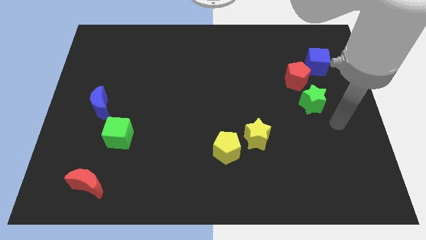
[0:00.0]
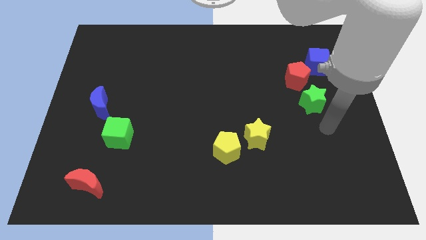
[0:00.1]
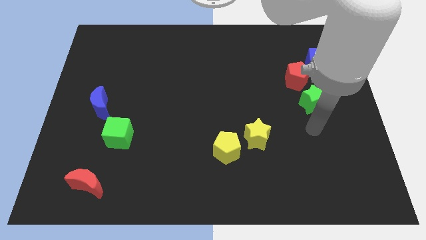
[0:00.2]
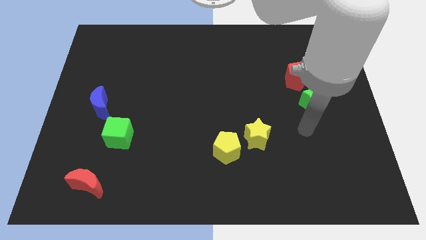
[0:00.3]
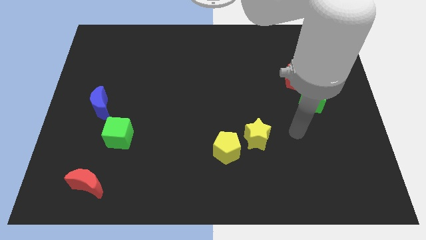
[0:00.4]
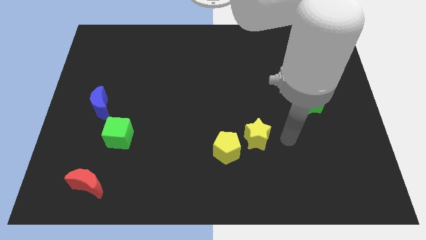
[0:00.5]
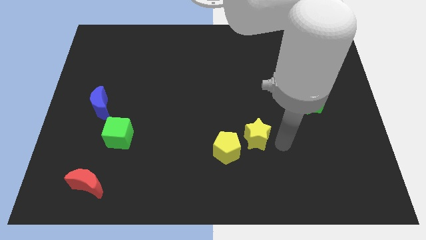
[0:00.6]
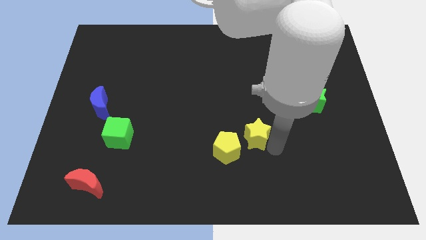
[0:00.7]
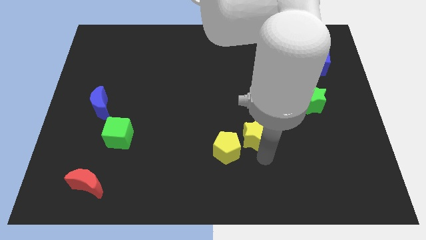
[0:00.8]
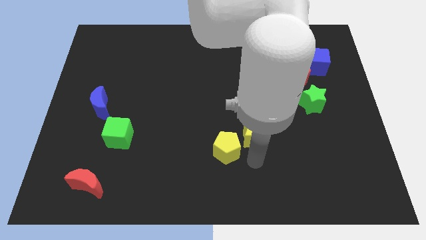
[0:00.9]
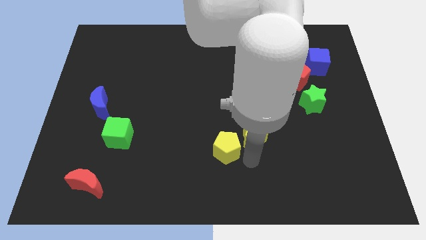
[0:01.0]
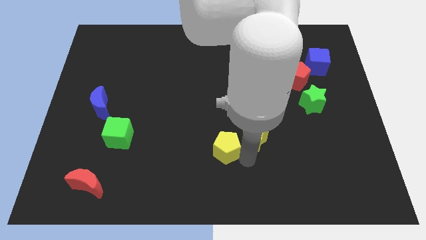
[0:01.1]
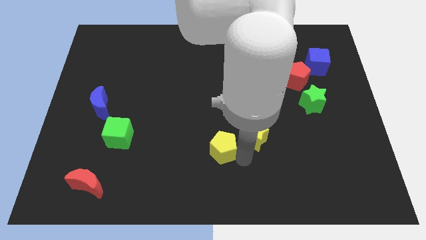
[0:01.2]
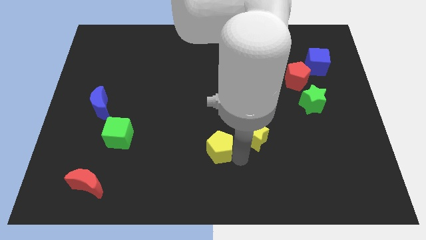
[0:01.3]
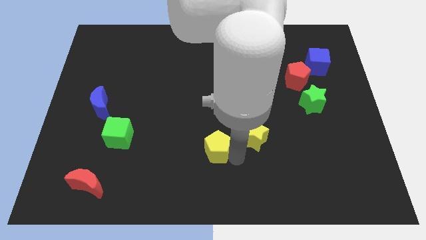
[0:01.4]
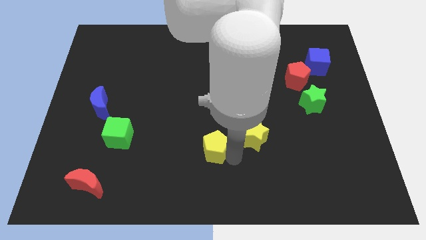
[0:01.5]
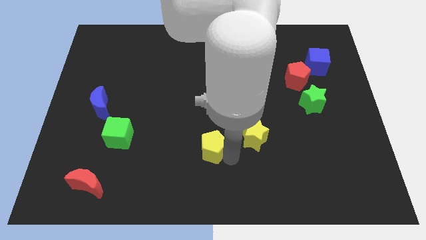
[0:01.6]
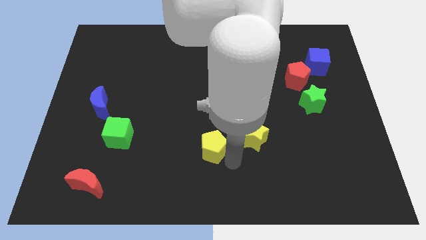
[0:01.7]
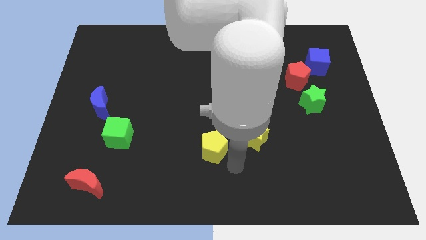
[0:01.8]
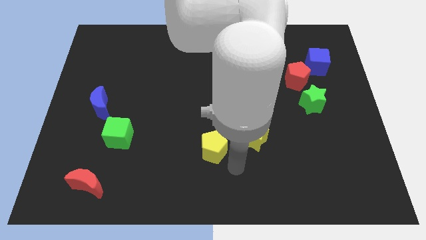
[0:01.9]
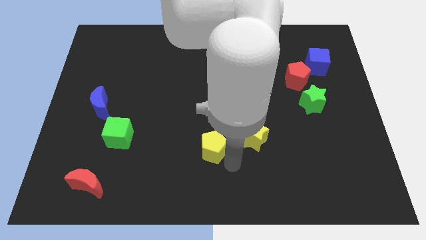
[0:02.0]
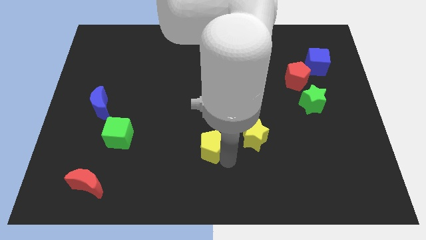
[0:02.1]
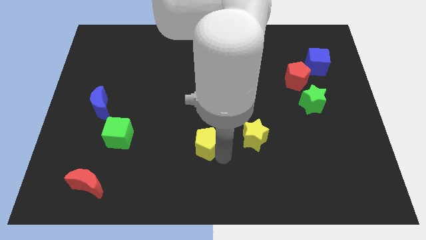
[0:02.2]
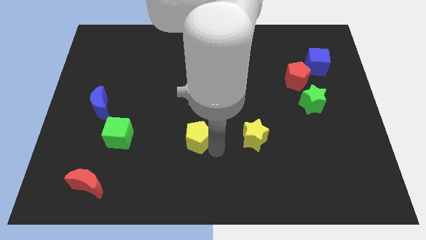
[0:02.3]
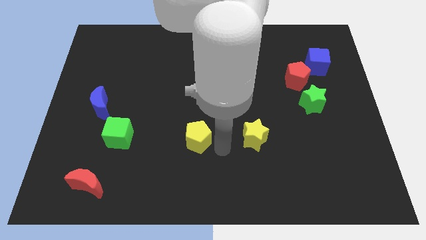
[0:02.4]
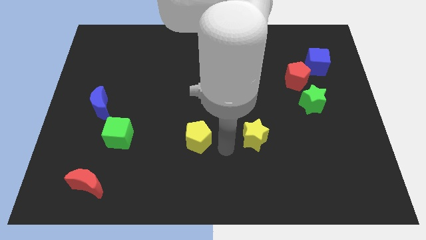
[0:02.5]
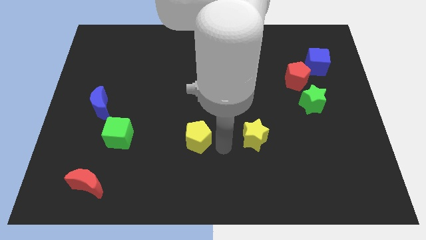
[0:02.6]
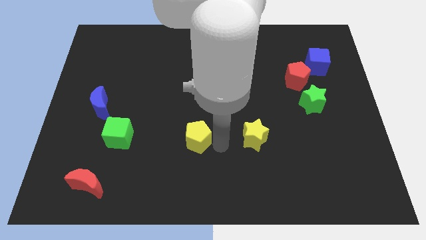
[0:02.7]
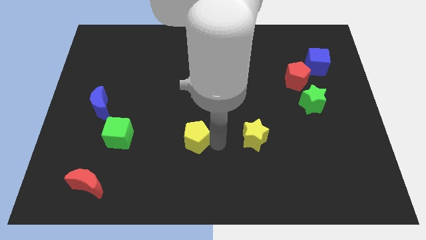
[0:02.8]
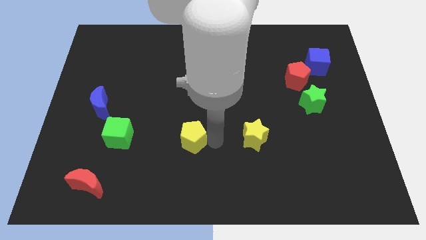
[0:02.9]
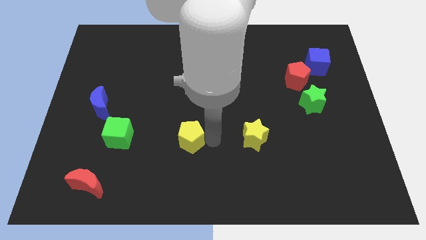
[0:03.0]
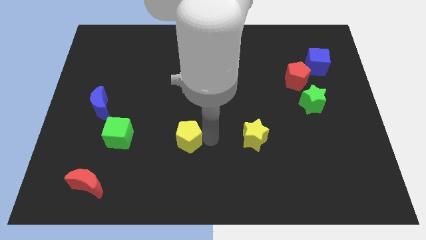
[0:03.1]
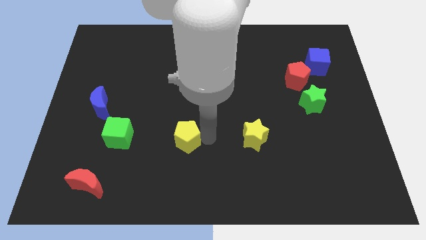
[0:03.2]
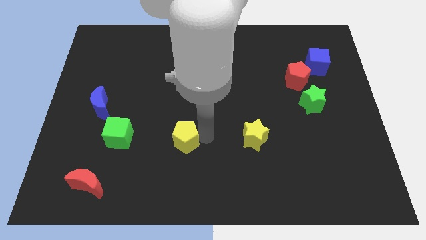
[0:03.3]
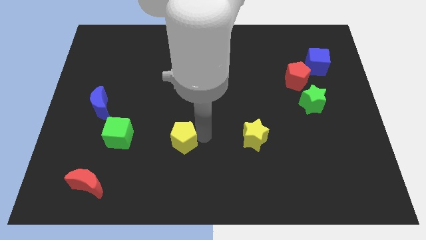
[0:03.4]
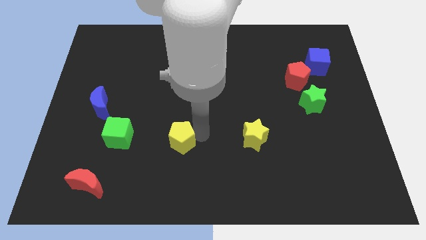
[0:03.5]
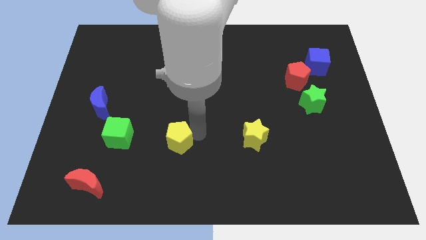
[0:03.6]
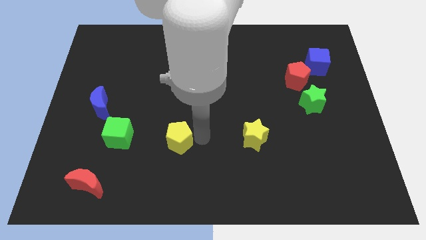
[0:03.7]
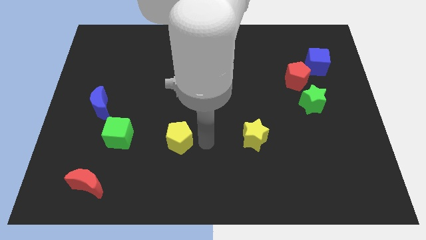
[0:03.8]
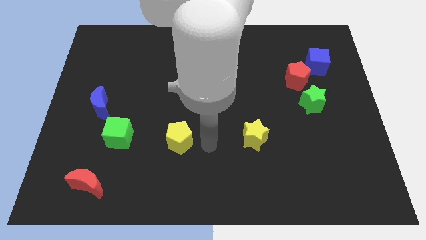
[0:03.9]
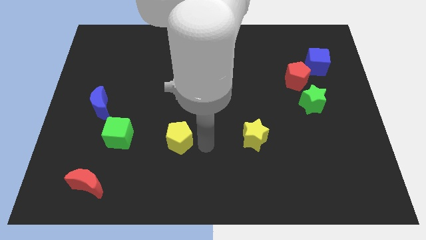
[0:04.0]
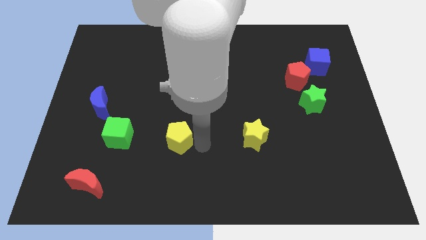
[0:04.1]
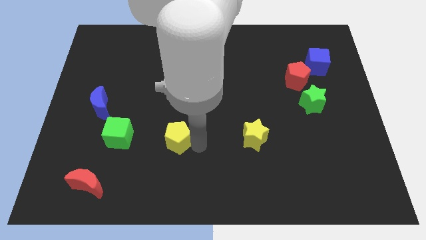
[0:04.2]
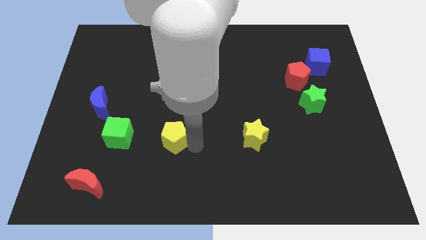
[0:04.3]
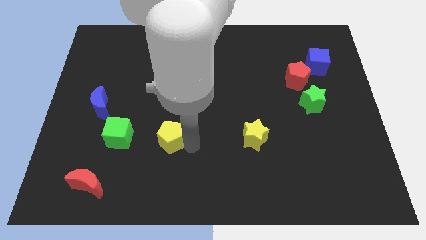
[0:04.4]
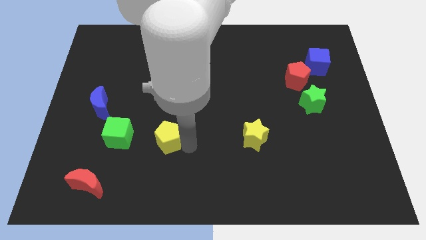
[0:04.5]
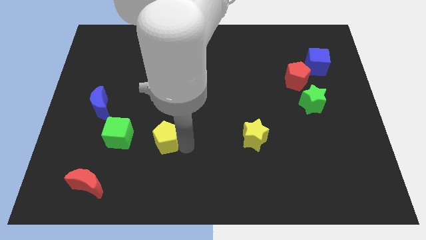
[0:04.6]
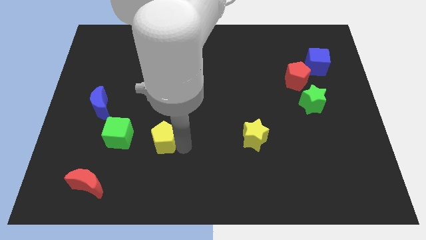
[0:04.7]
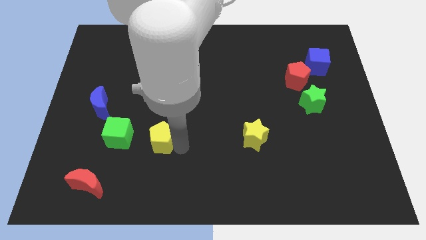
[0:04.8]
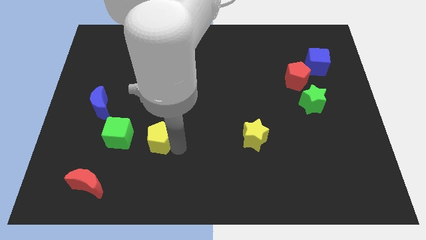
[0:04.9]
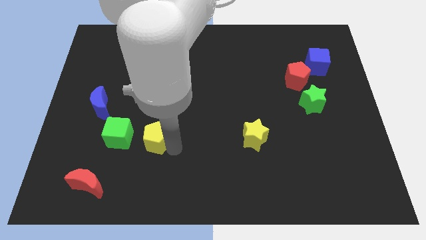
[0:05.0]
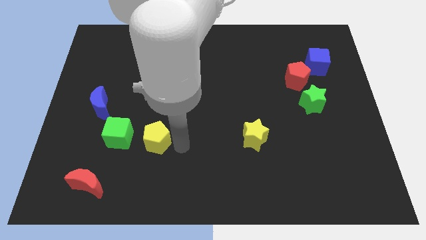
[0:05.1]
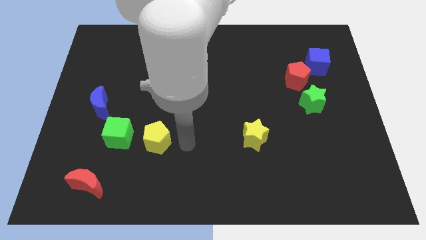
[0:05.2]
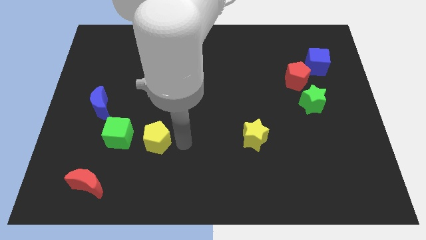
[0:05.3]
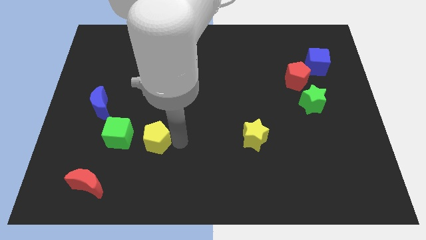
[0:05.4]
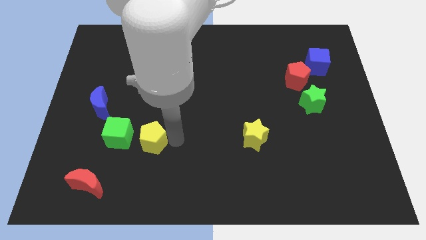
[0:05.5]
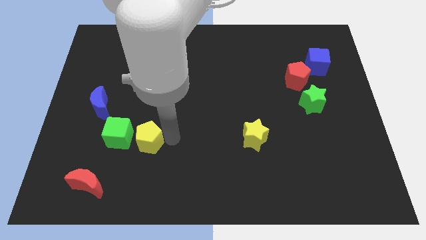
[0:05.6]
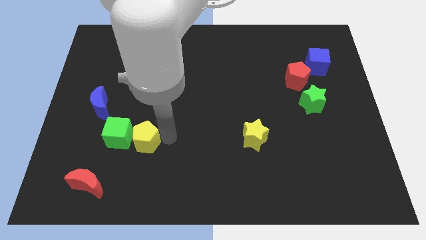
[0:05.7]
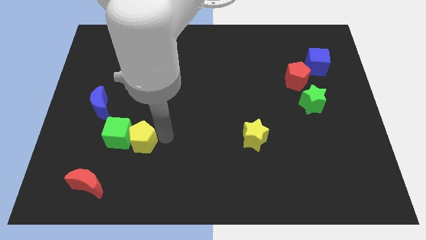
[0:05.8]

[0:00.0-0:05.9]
push the yellow pentagon to the green cube

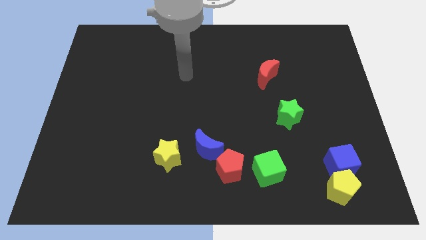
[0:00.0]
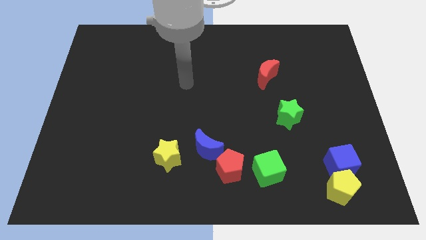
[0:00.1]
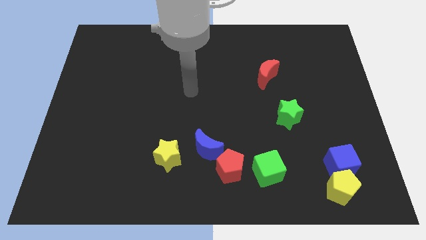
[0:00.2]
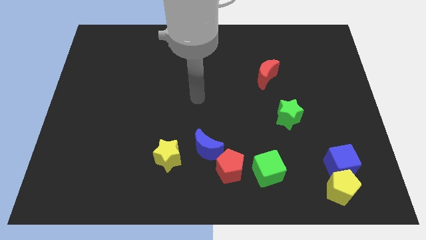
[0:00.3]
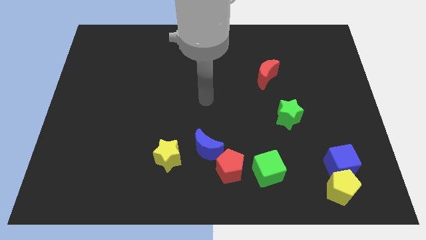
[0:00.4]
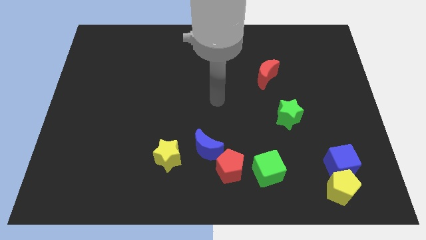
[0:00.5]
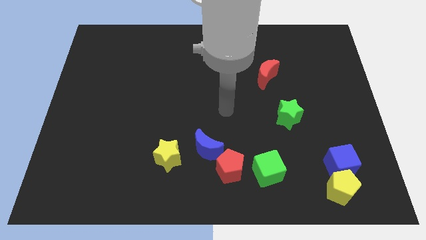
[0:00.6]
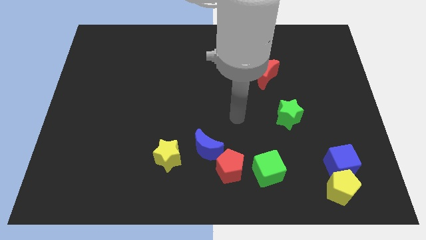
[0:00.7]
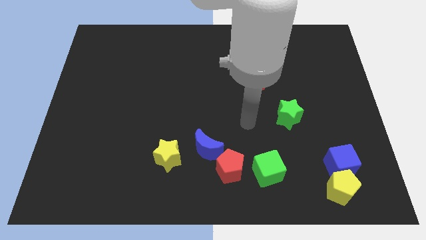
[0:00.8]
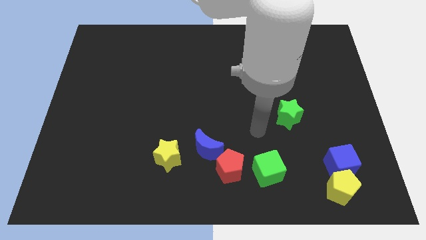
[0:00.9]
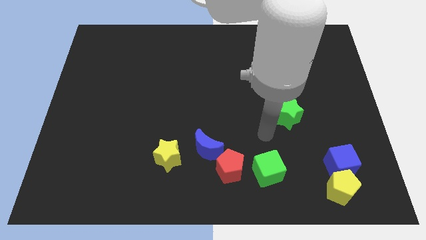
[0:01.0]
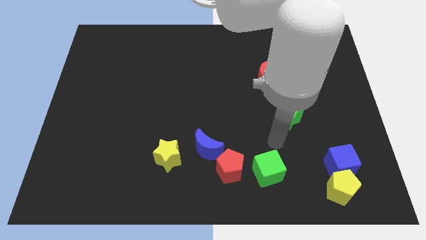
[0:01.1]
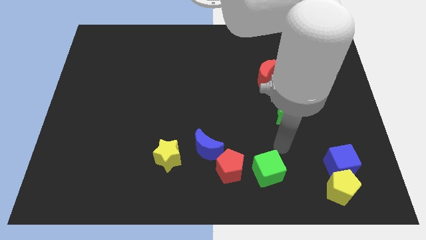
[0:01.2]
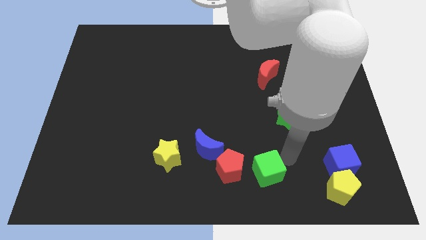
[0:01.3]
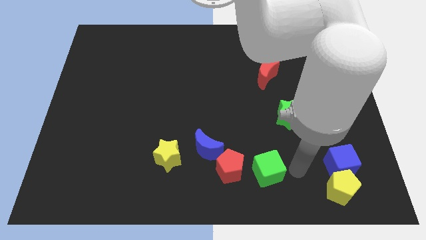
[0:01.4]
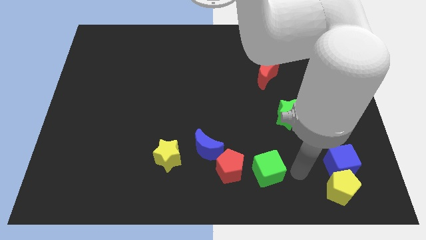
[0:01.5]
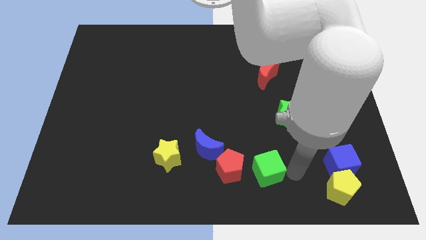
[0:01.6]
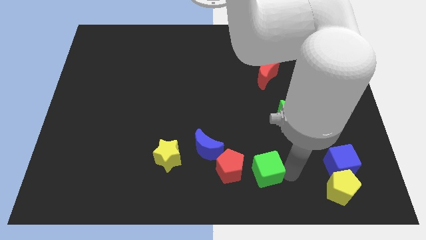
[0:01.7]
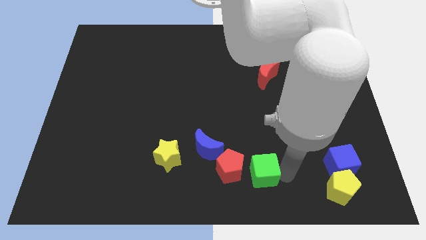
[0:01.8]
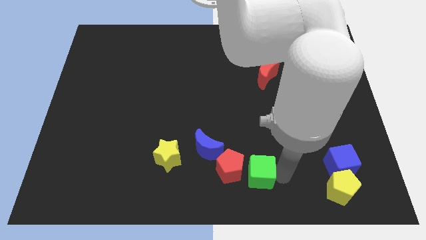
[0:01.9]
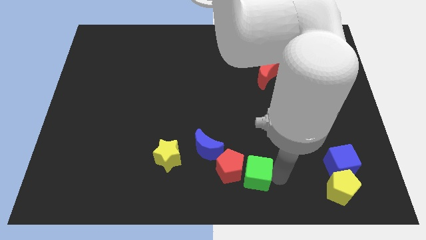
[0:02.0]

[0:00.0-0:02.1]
slide the green cube to the red pentagon
